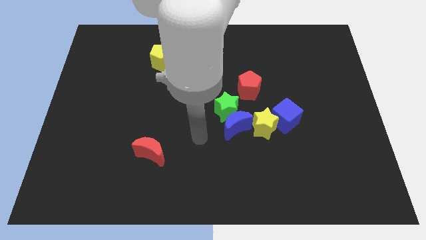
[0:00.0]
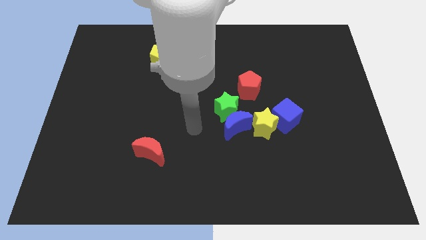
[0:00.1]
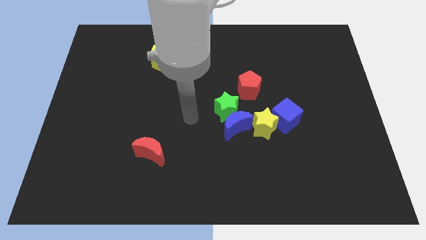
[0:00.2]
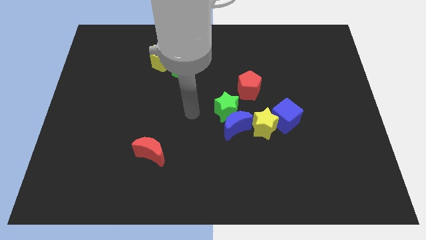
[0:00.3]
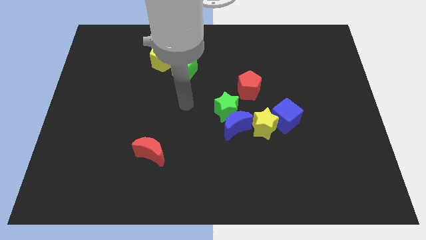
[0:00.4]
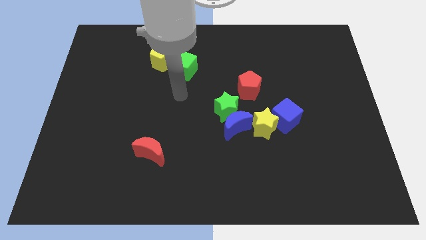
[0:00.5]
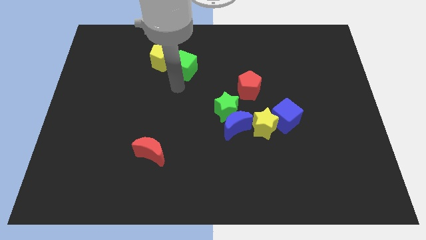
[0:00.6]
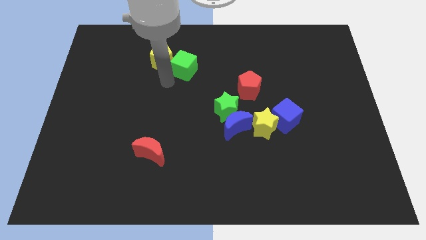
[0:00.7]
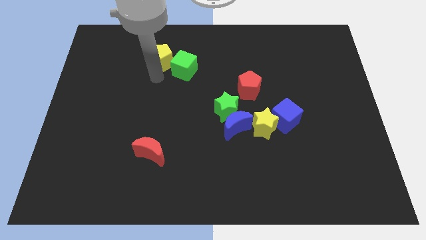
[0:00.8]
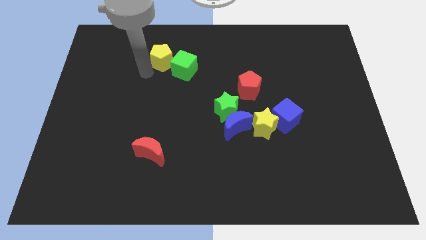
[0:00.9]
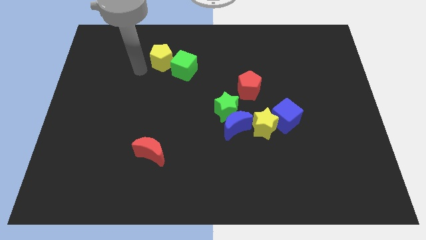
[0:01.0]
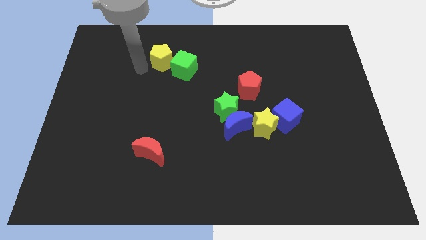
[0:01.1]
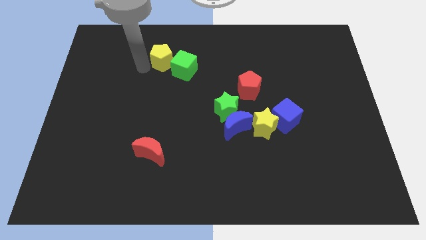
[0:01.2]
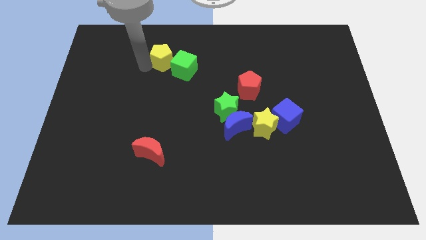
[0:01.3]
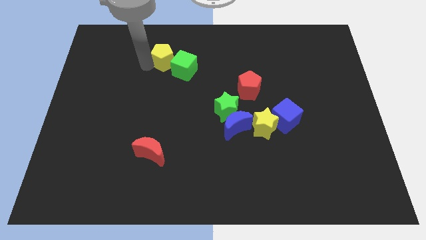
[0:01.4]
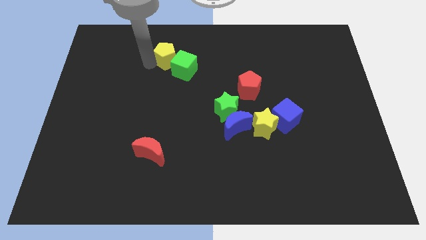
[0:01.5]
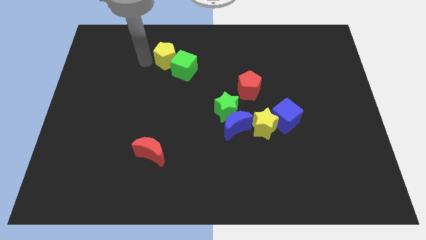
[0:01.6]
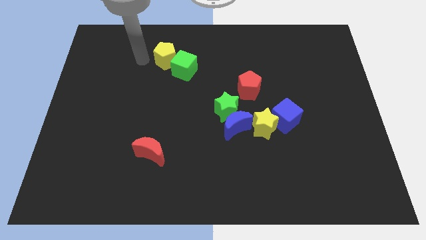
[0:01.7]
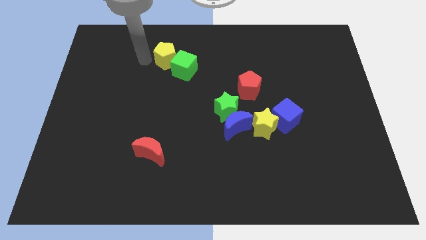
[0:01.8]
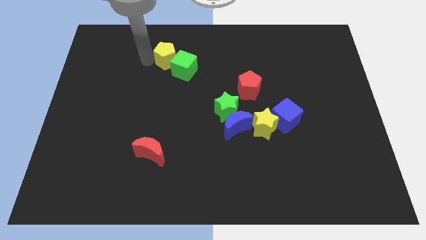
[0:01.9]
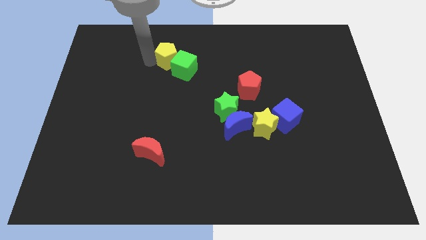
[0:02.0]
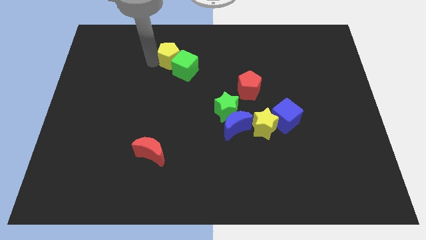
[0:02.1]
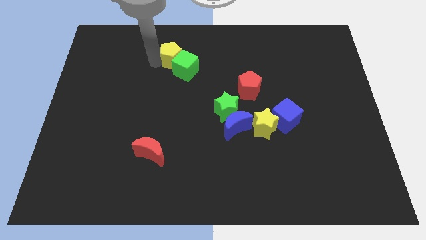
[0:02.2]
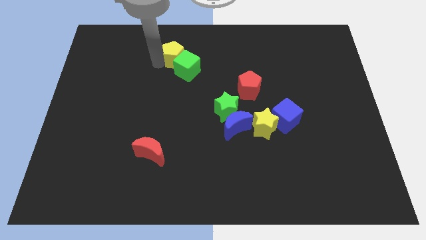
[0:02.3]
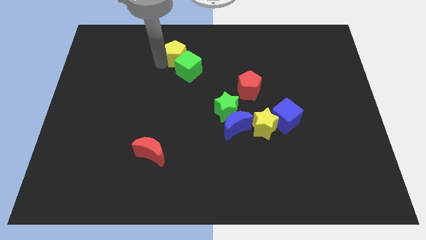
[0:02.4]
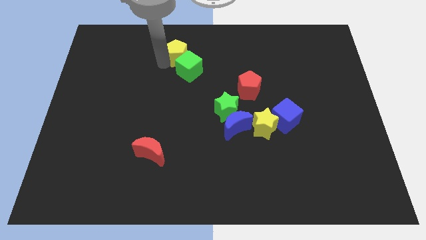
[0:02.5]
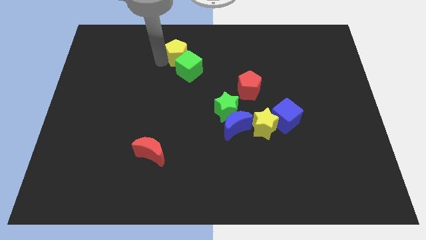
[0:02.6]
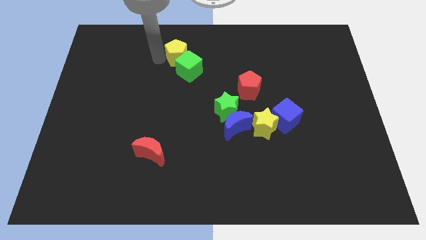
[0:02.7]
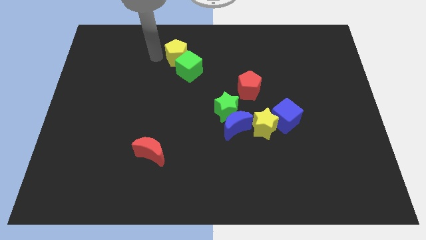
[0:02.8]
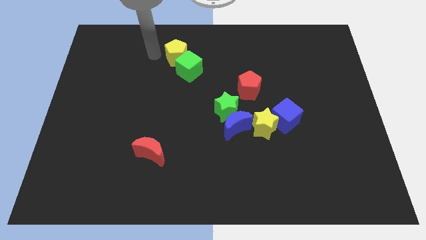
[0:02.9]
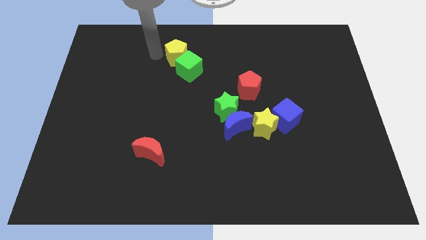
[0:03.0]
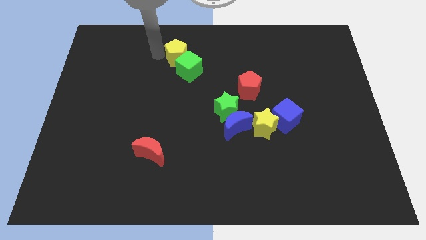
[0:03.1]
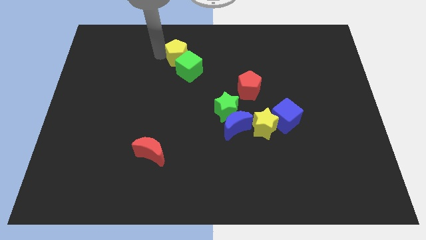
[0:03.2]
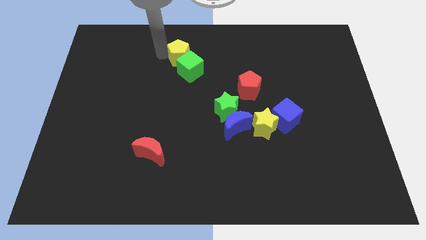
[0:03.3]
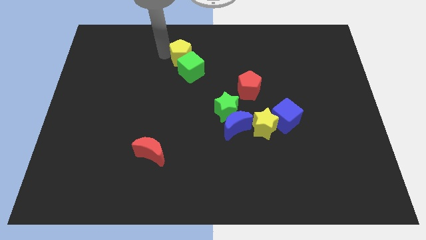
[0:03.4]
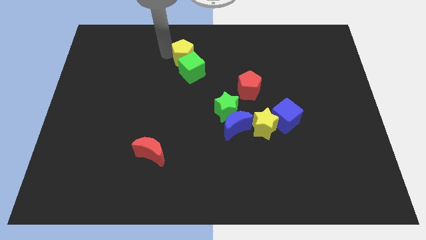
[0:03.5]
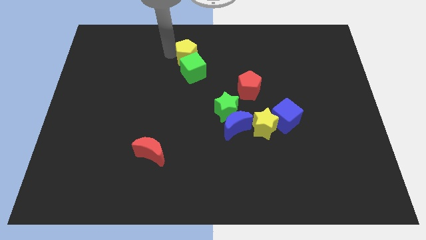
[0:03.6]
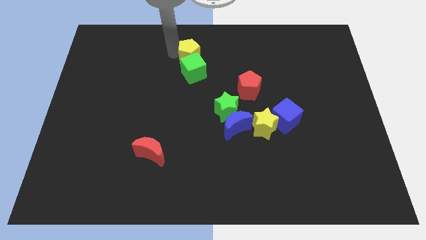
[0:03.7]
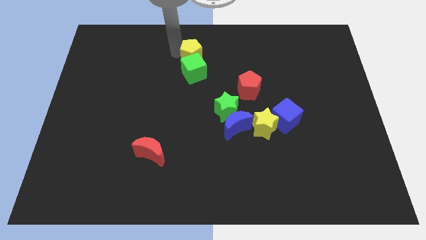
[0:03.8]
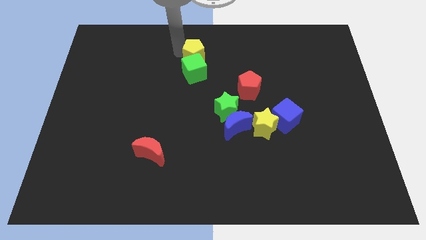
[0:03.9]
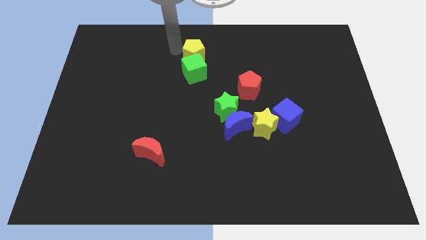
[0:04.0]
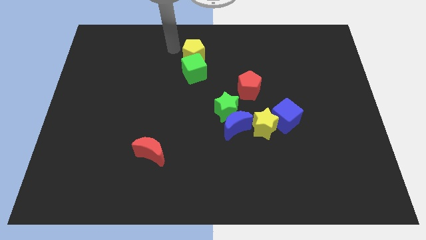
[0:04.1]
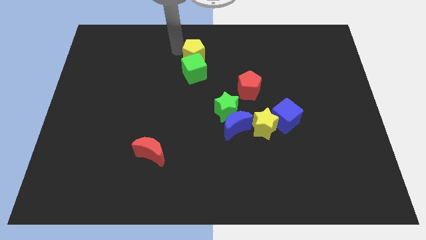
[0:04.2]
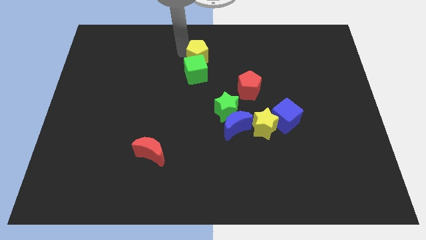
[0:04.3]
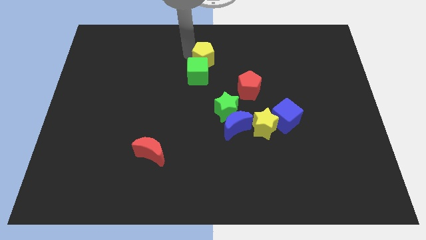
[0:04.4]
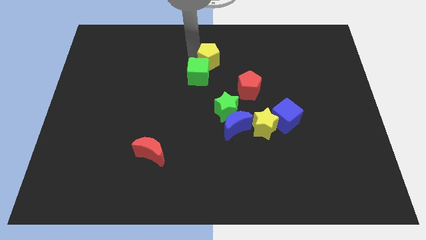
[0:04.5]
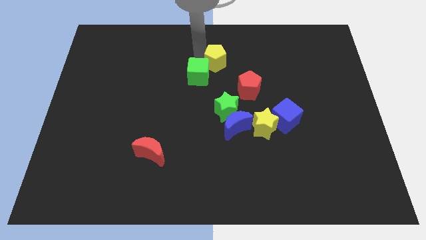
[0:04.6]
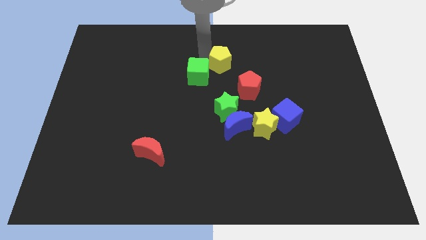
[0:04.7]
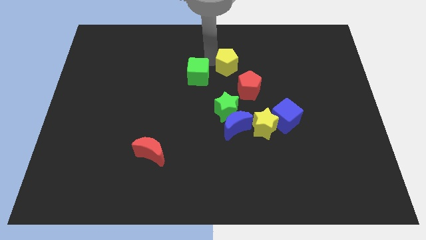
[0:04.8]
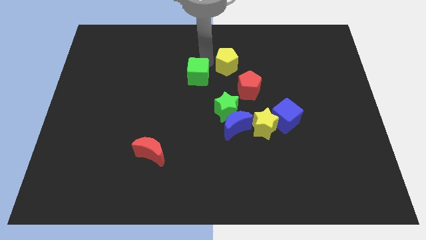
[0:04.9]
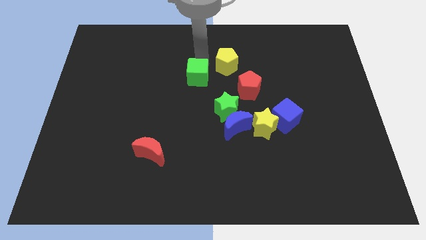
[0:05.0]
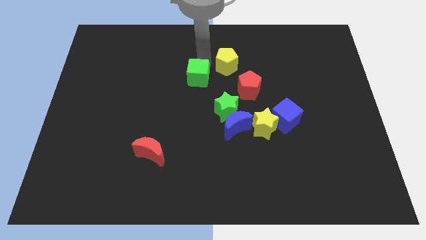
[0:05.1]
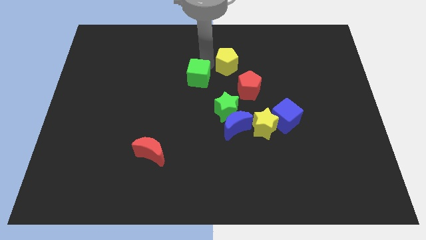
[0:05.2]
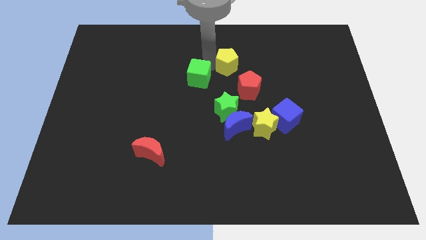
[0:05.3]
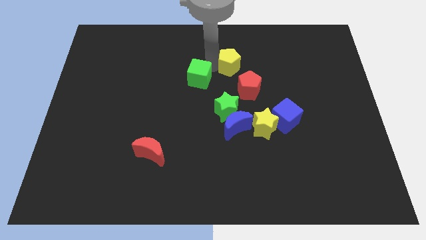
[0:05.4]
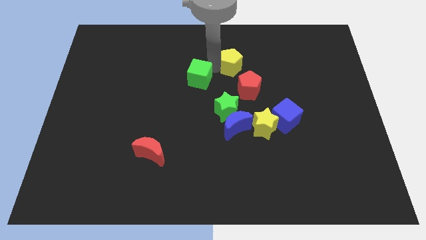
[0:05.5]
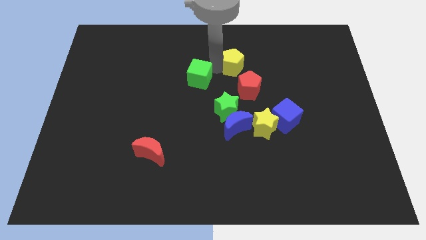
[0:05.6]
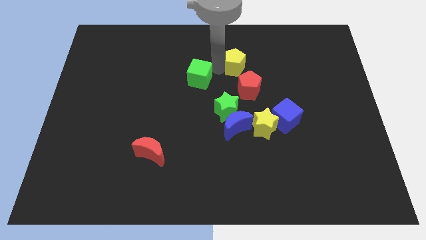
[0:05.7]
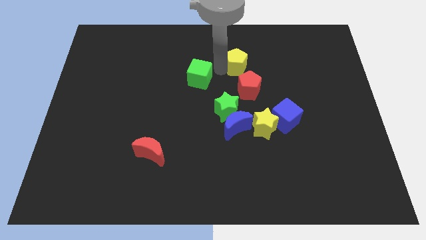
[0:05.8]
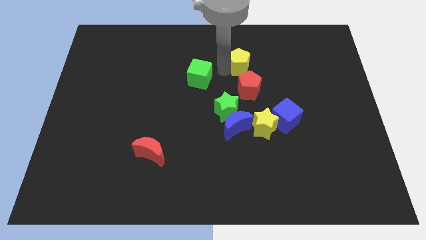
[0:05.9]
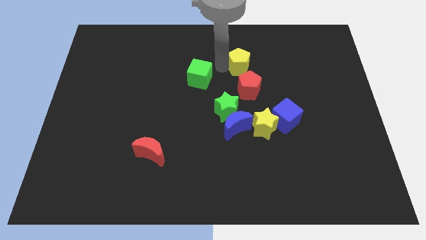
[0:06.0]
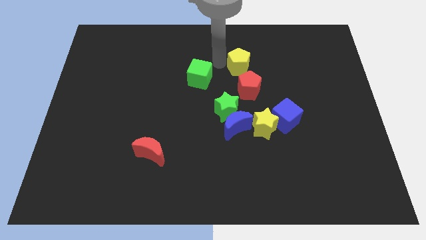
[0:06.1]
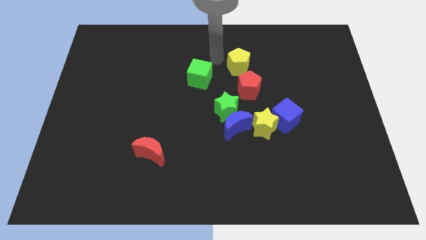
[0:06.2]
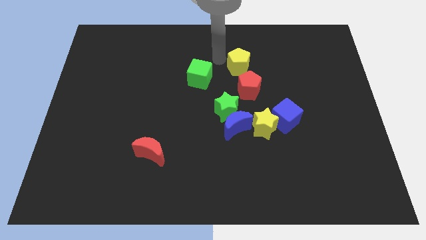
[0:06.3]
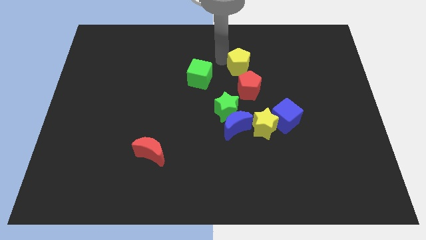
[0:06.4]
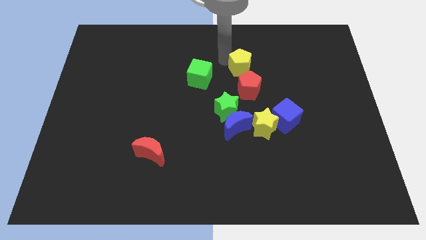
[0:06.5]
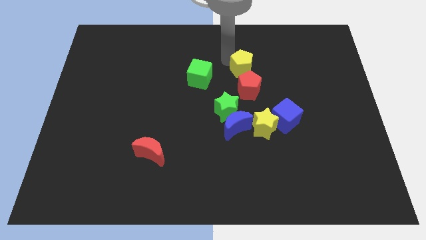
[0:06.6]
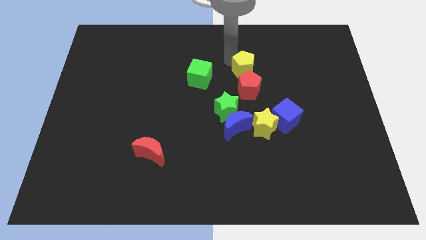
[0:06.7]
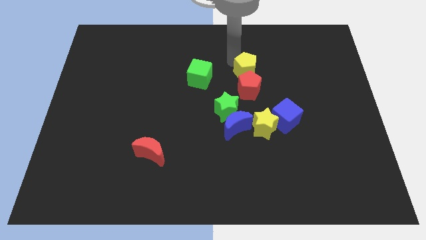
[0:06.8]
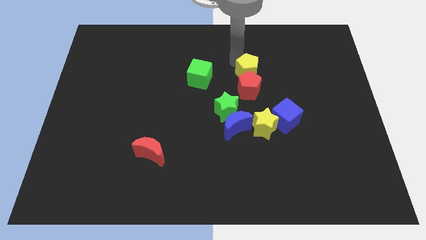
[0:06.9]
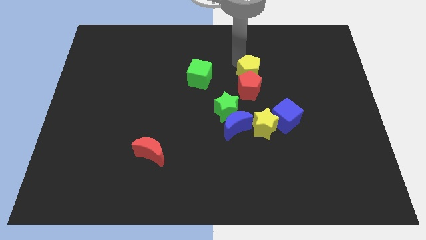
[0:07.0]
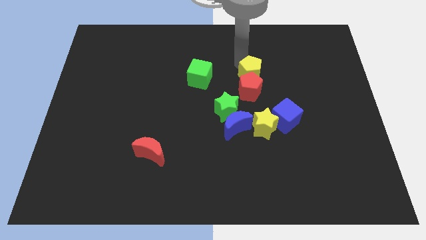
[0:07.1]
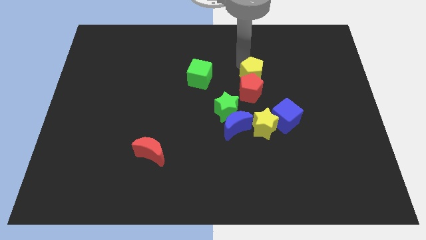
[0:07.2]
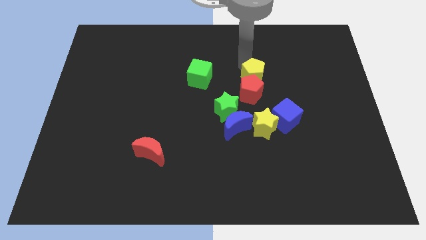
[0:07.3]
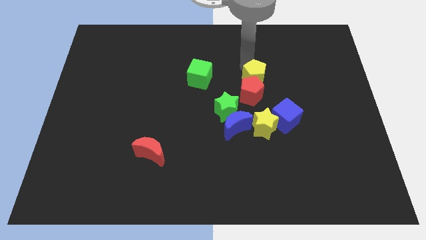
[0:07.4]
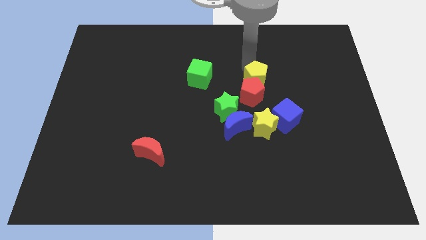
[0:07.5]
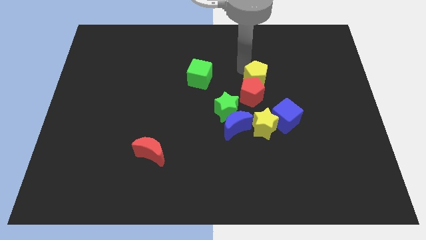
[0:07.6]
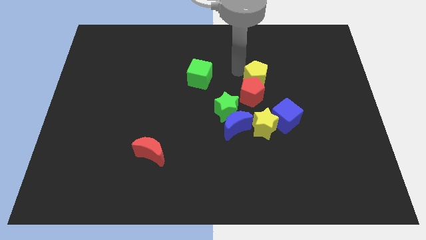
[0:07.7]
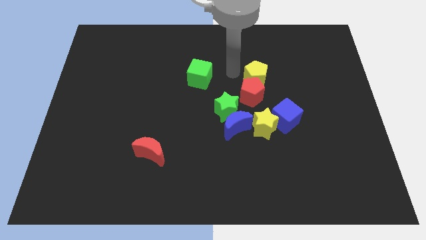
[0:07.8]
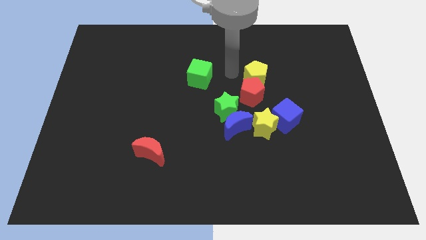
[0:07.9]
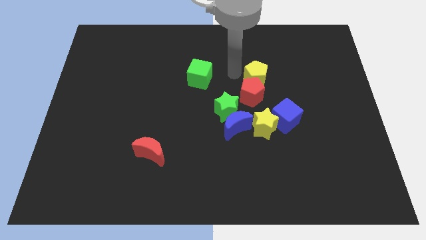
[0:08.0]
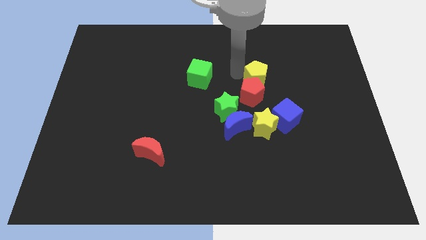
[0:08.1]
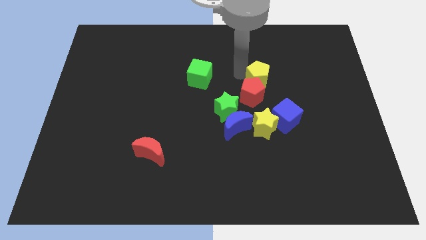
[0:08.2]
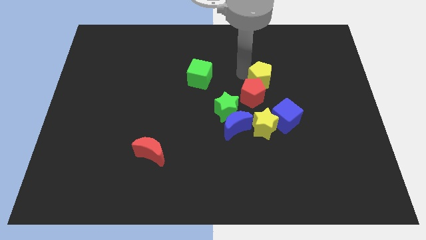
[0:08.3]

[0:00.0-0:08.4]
put the yellow pentagon to the top side of the blue cube

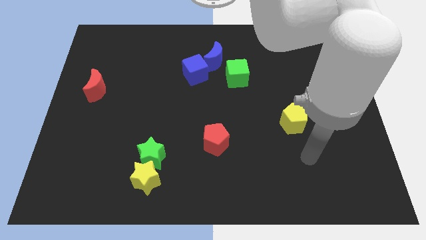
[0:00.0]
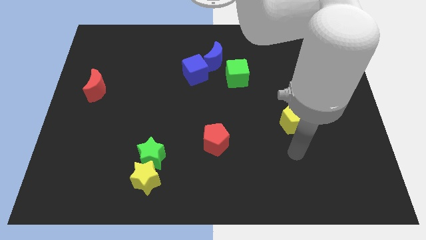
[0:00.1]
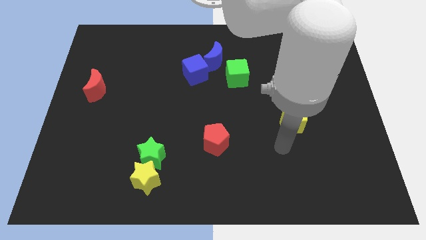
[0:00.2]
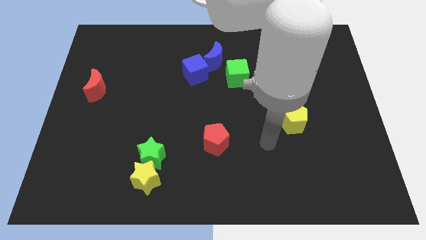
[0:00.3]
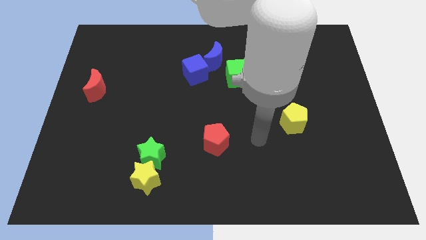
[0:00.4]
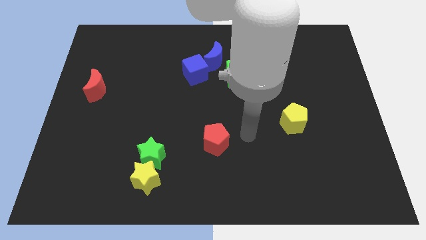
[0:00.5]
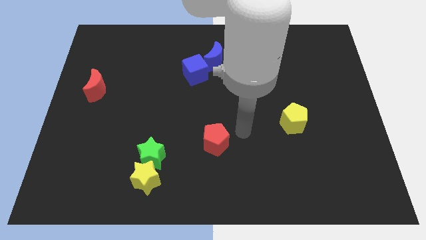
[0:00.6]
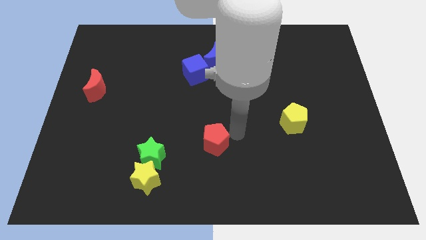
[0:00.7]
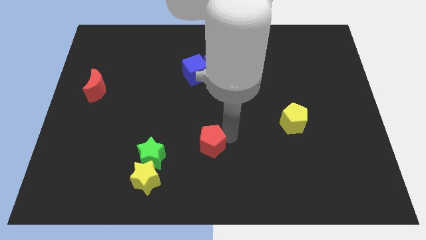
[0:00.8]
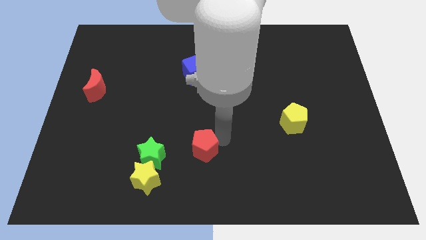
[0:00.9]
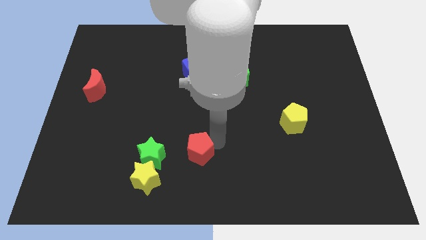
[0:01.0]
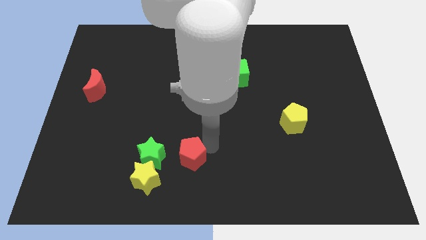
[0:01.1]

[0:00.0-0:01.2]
put the red pentagon to the top right side of the yellow star
